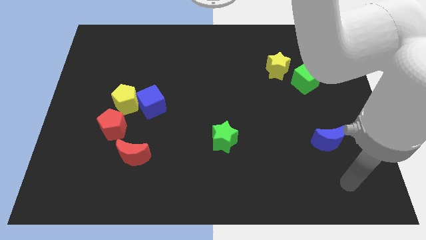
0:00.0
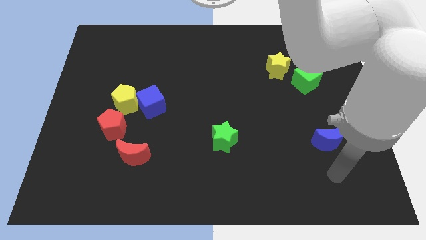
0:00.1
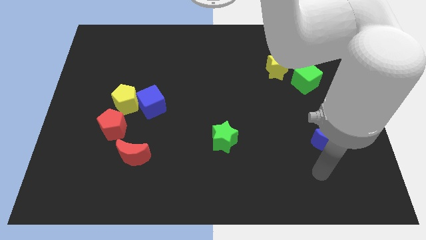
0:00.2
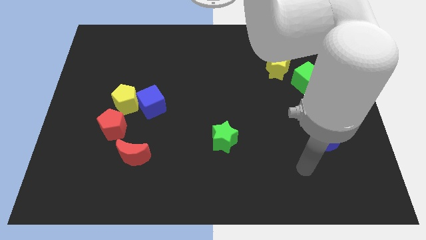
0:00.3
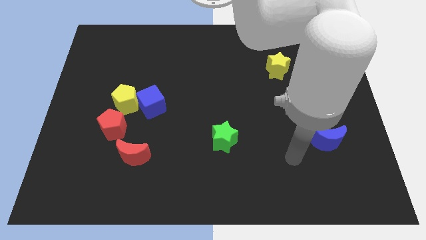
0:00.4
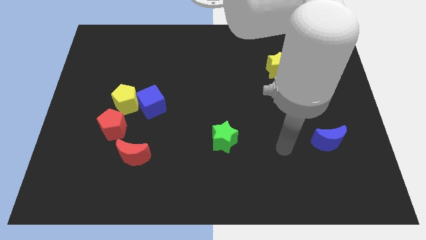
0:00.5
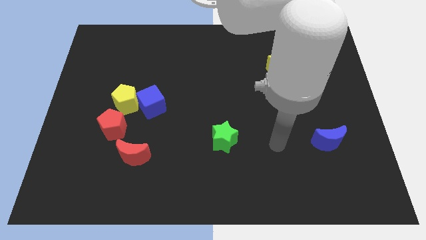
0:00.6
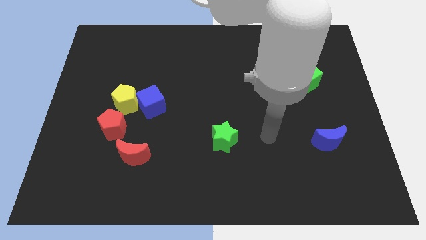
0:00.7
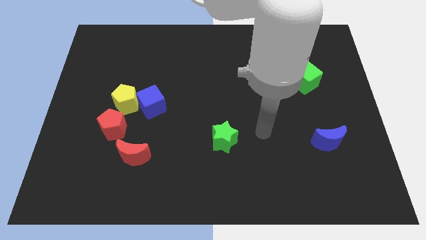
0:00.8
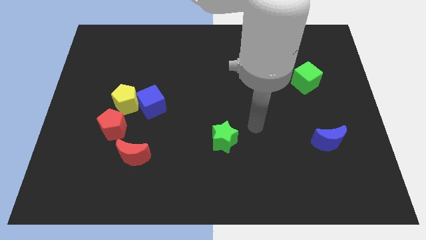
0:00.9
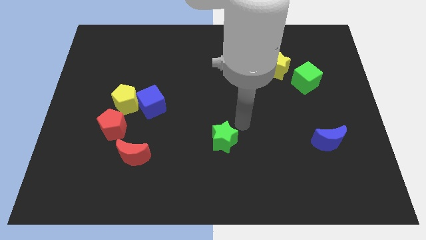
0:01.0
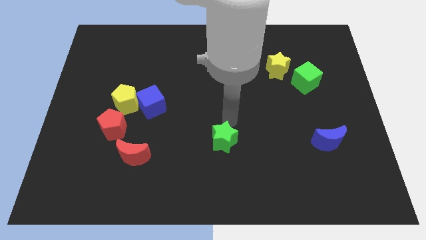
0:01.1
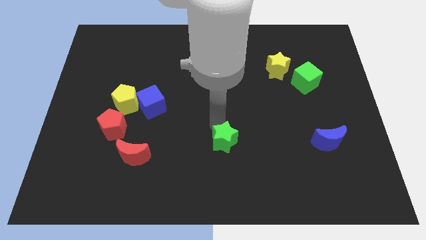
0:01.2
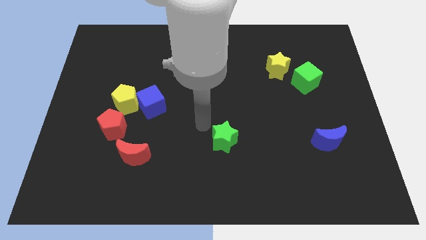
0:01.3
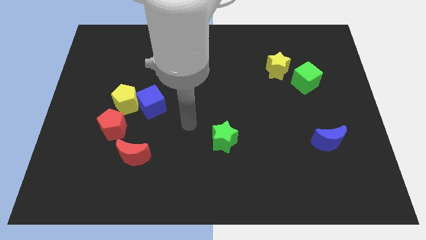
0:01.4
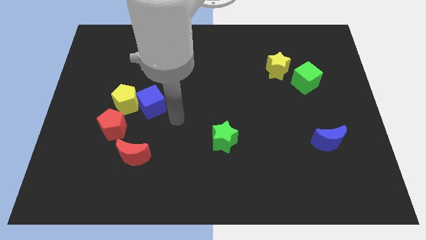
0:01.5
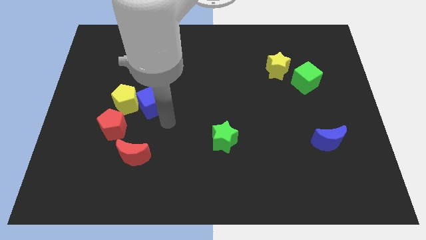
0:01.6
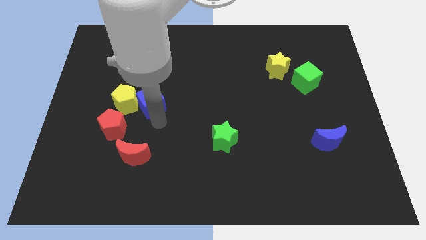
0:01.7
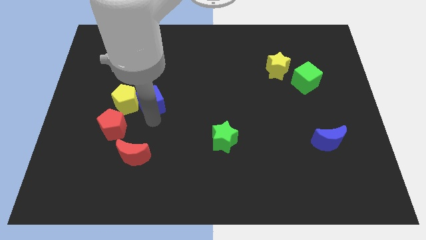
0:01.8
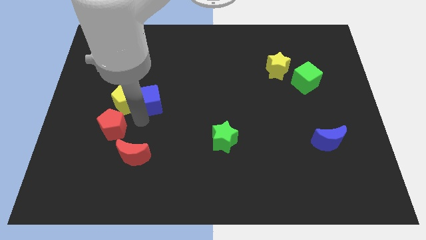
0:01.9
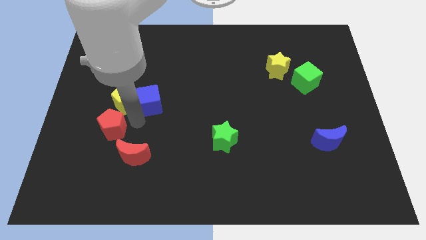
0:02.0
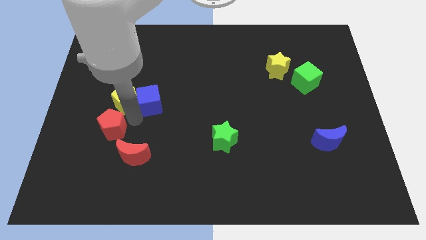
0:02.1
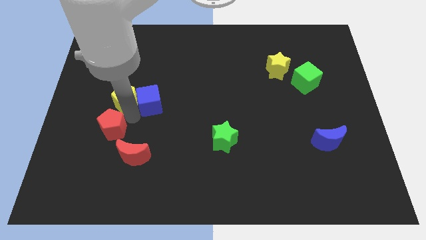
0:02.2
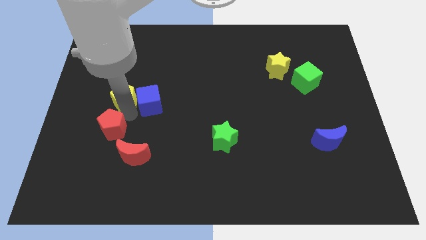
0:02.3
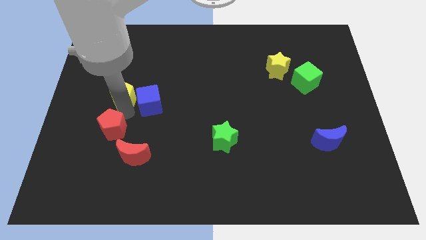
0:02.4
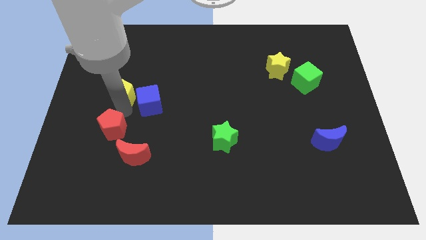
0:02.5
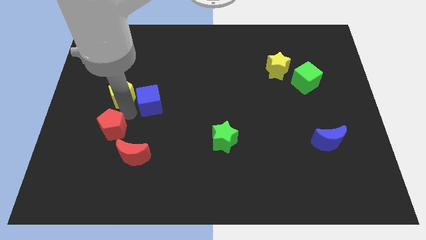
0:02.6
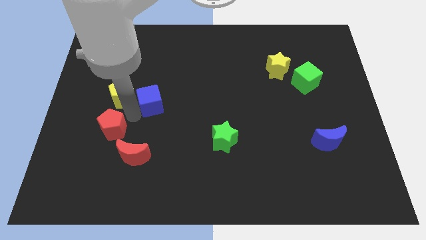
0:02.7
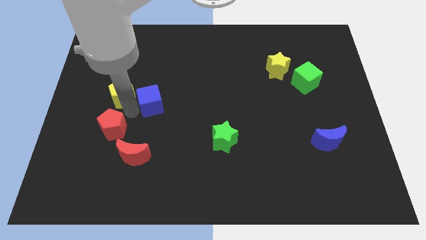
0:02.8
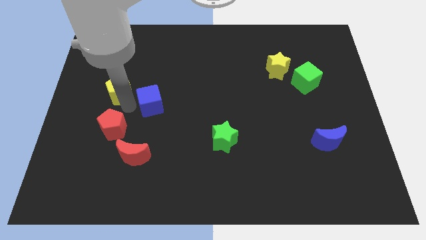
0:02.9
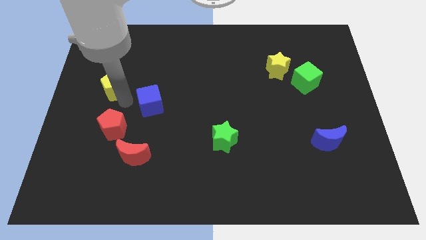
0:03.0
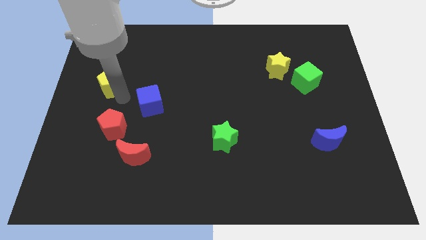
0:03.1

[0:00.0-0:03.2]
move the yellow pentagon away from the blue cube and red pentagon

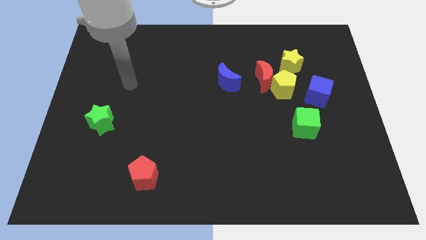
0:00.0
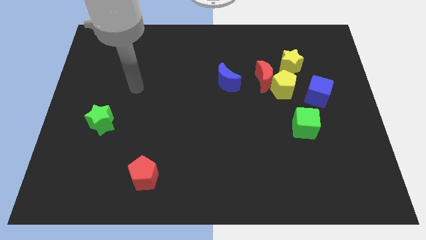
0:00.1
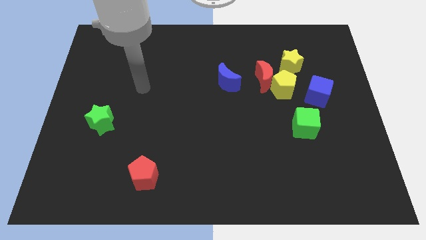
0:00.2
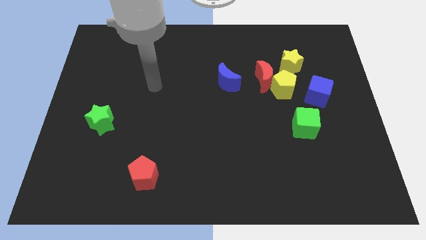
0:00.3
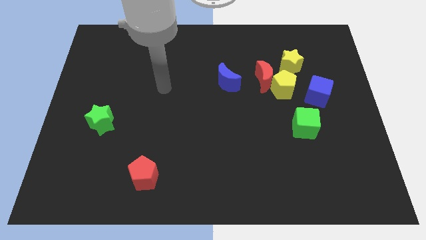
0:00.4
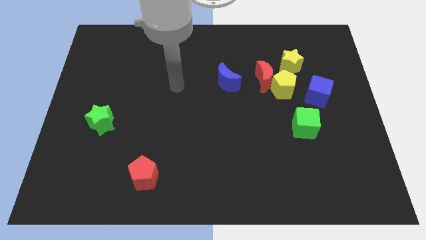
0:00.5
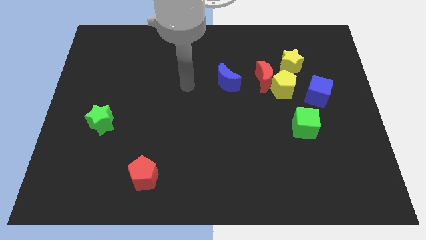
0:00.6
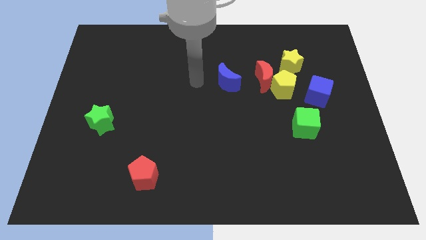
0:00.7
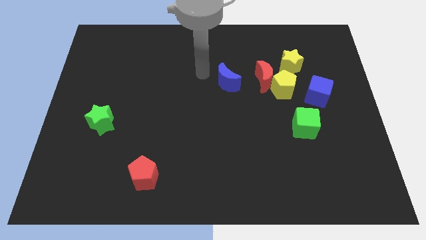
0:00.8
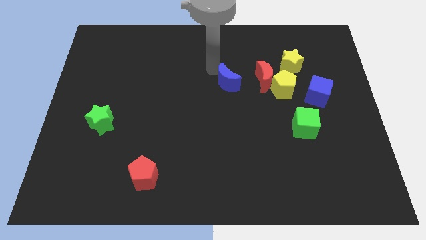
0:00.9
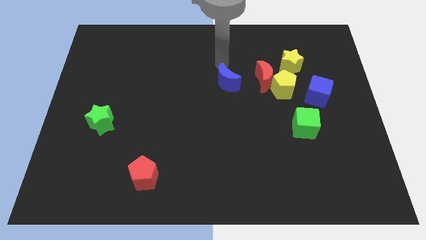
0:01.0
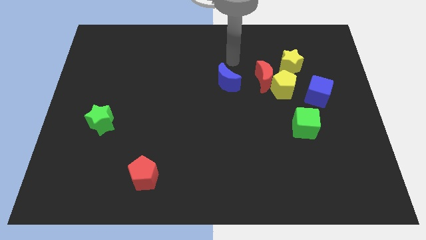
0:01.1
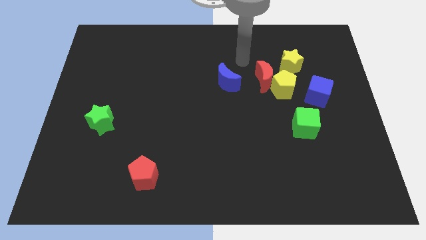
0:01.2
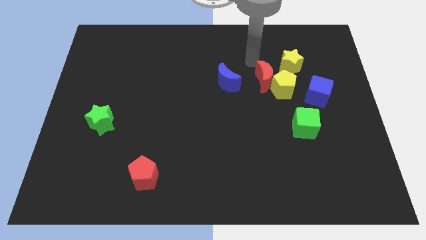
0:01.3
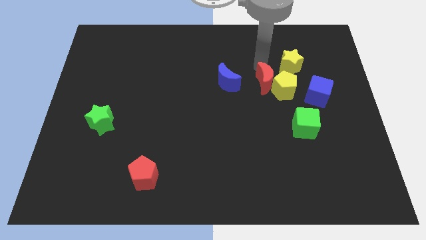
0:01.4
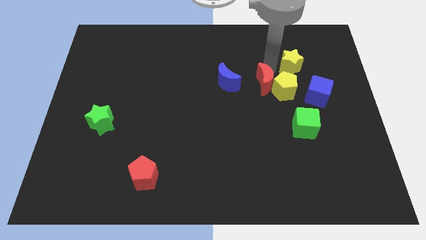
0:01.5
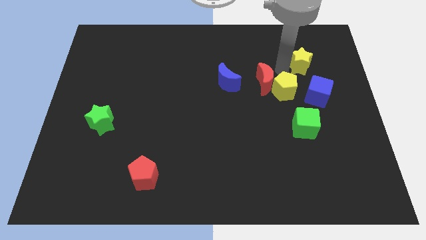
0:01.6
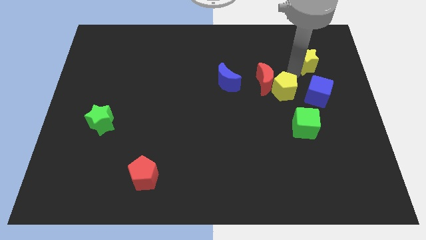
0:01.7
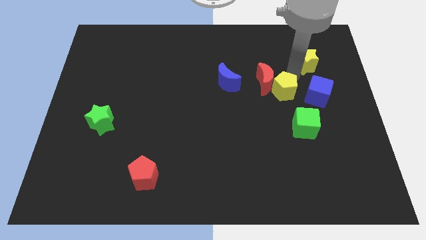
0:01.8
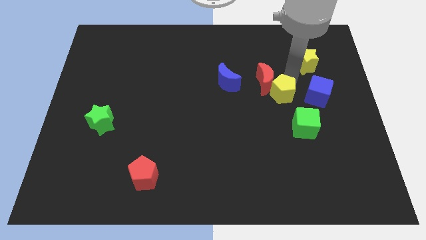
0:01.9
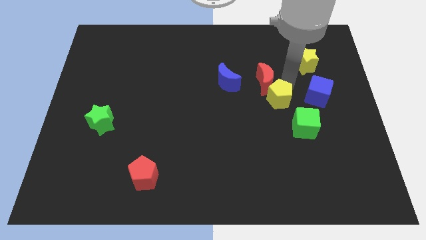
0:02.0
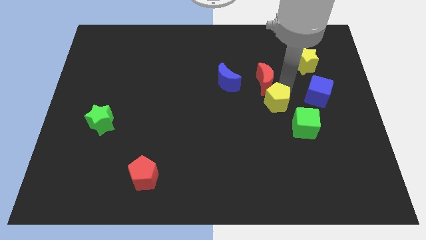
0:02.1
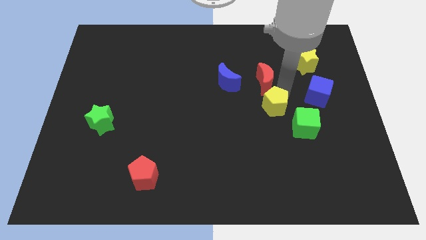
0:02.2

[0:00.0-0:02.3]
pull the yellow pentagon apart from the group of blocks

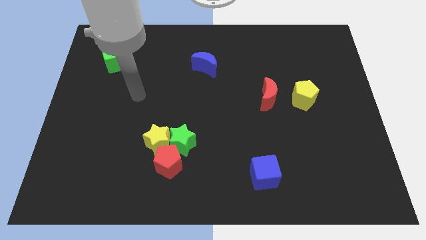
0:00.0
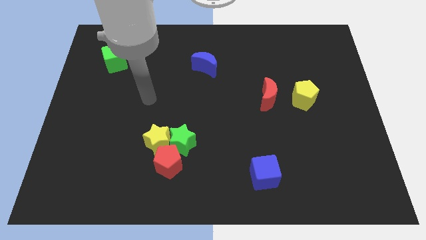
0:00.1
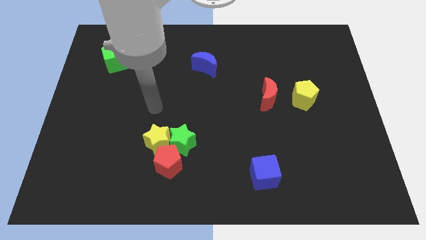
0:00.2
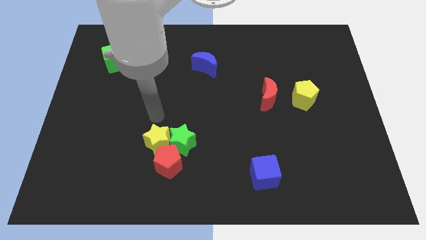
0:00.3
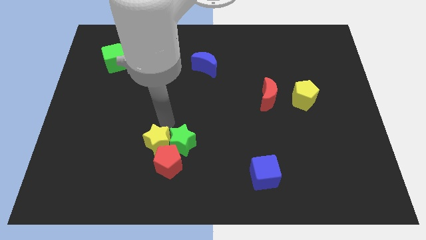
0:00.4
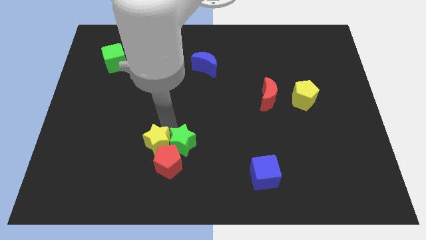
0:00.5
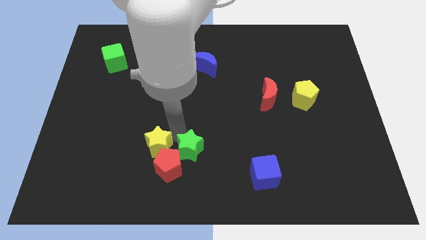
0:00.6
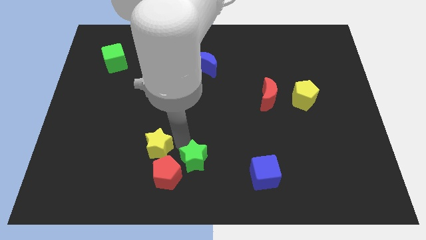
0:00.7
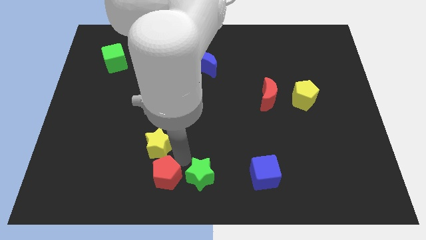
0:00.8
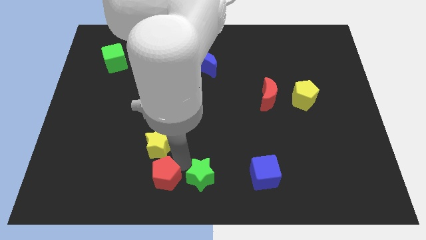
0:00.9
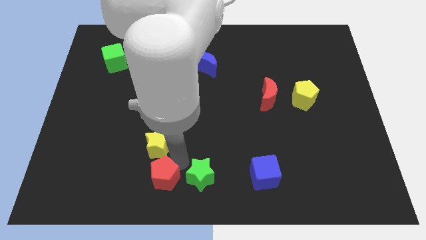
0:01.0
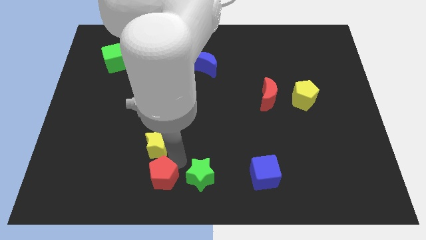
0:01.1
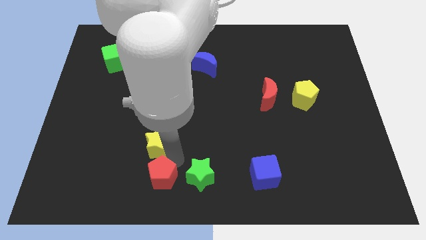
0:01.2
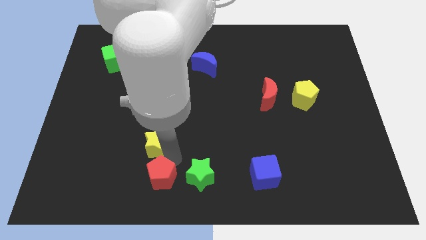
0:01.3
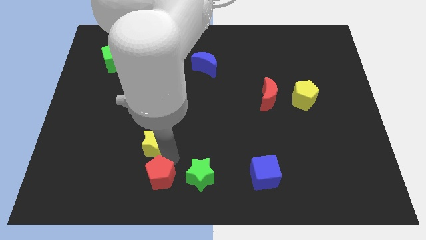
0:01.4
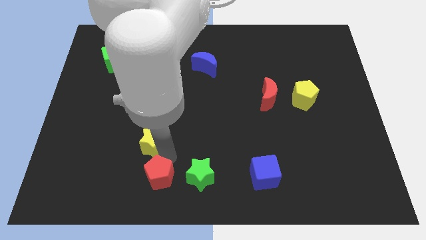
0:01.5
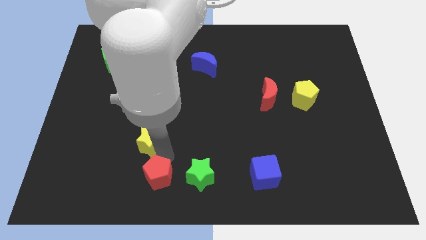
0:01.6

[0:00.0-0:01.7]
move the yellow star away from the green star and red pentagon

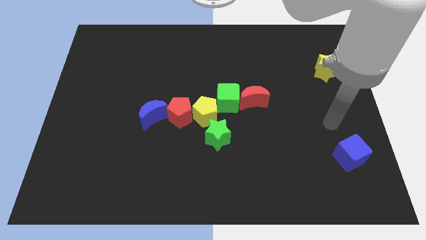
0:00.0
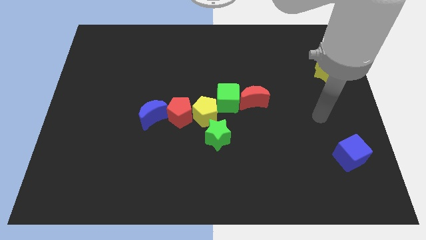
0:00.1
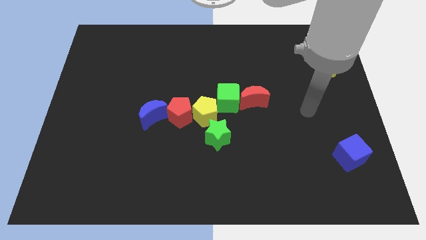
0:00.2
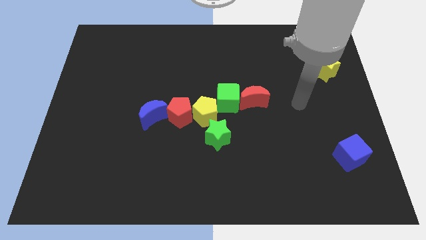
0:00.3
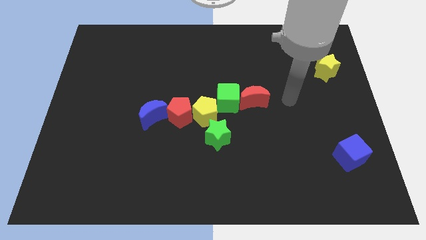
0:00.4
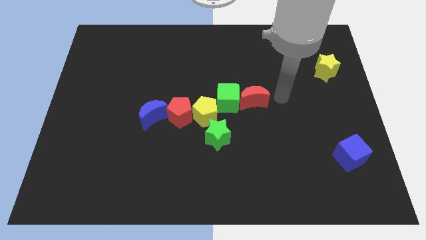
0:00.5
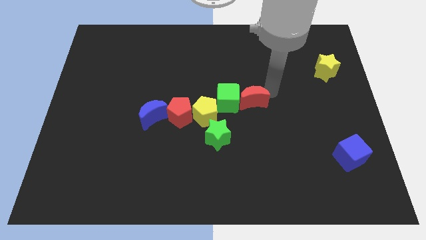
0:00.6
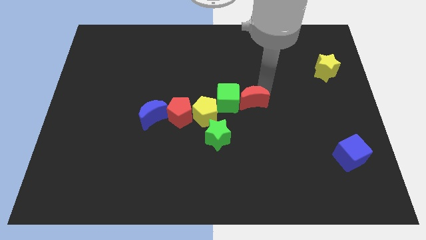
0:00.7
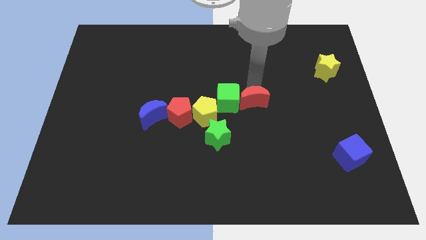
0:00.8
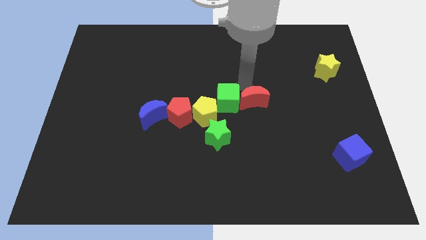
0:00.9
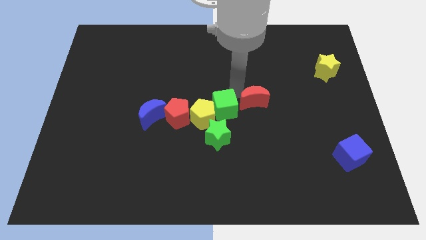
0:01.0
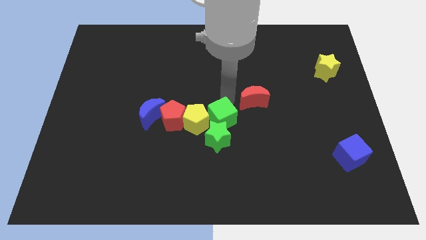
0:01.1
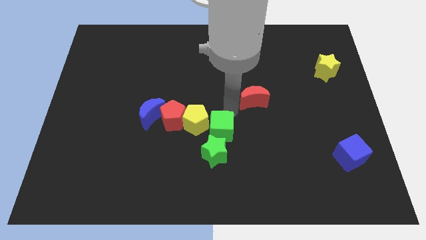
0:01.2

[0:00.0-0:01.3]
separate the red moon from the green cube

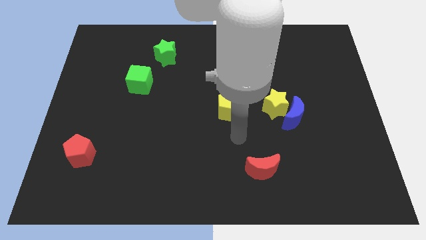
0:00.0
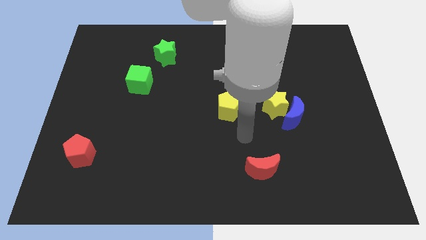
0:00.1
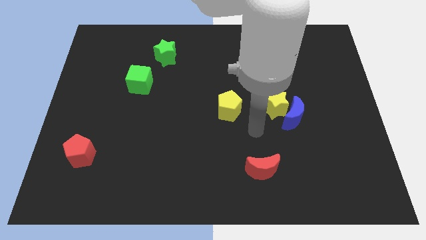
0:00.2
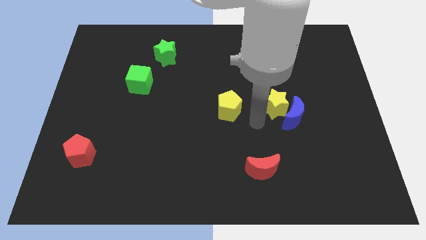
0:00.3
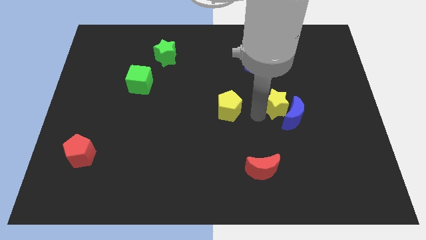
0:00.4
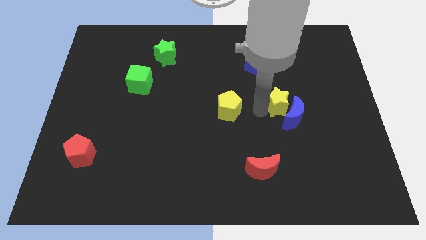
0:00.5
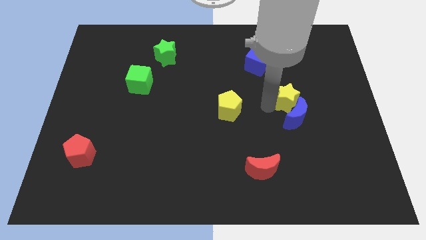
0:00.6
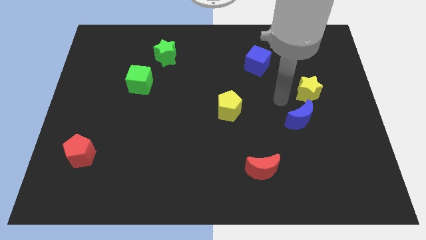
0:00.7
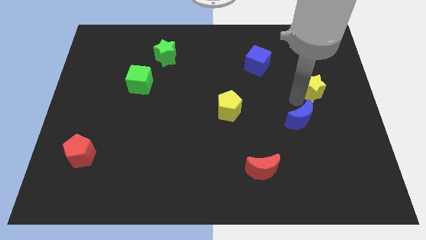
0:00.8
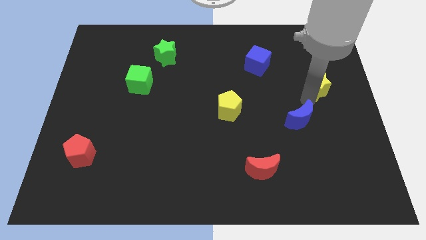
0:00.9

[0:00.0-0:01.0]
pull the blue moon apart from the yellow star
